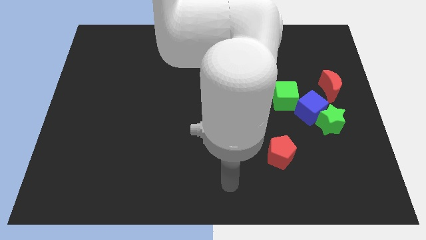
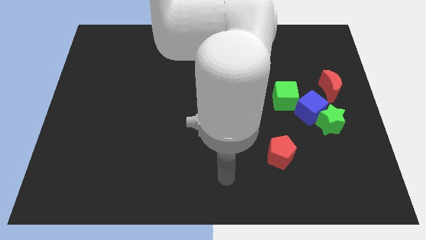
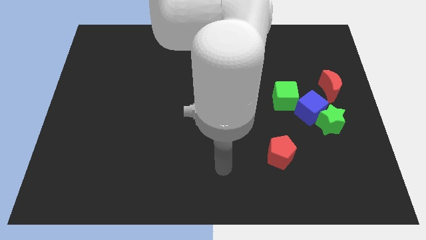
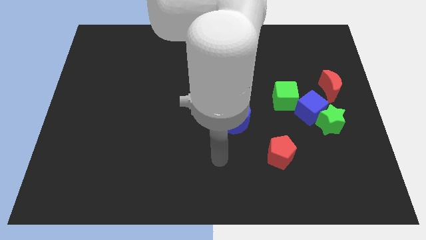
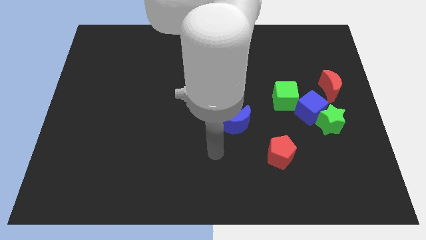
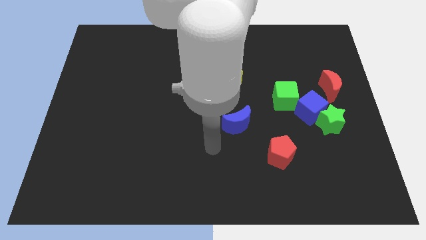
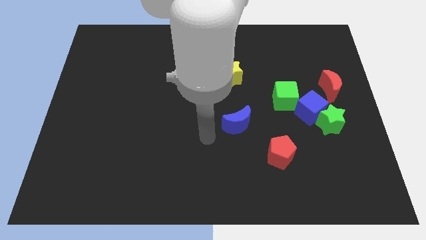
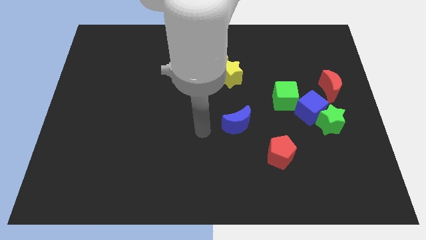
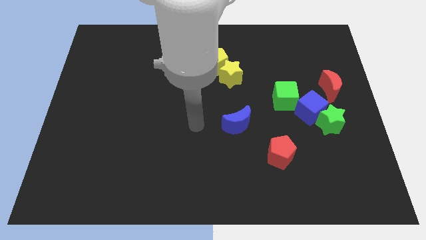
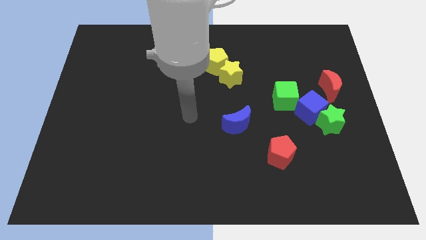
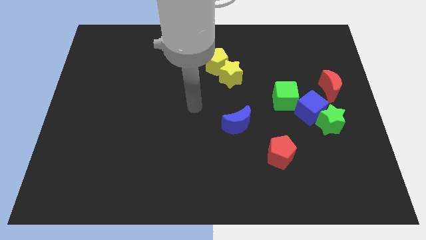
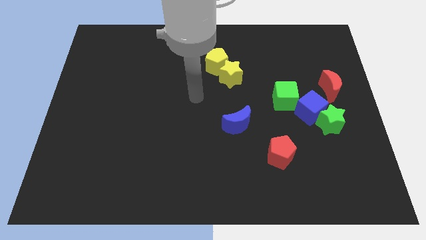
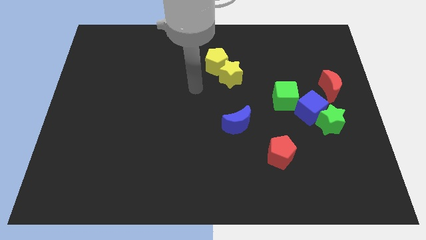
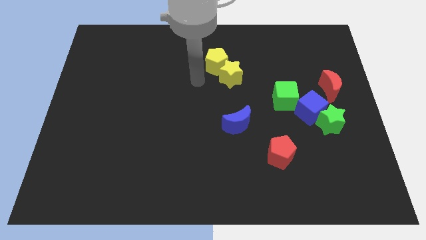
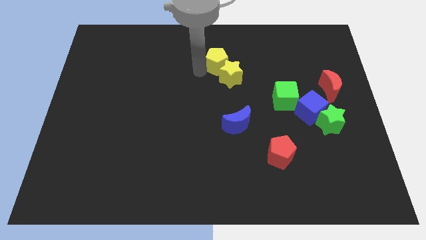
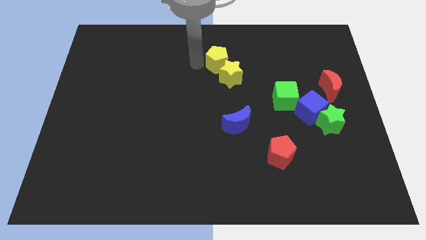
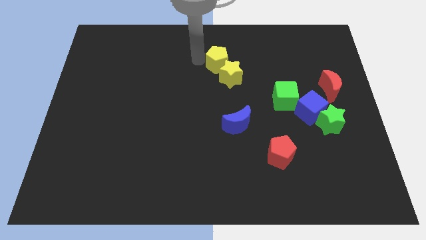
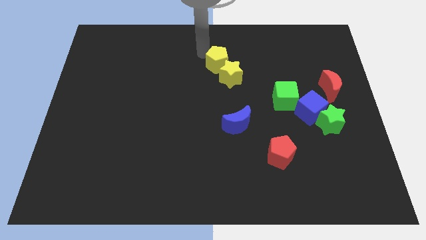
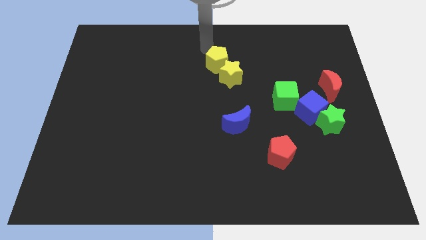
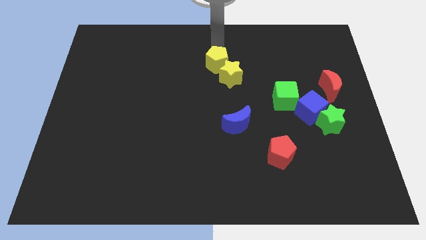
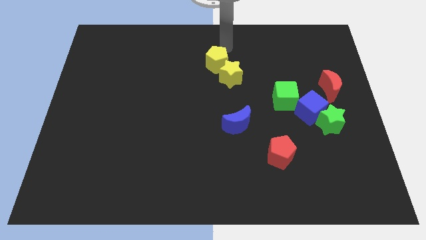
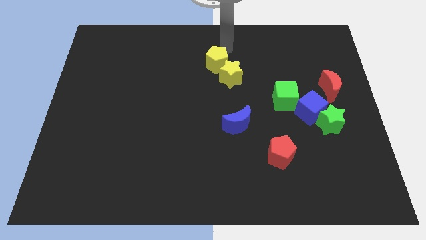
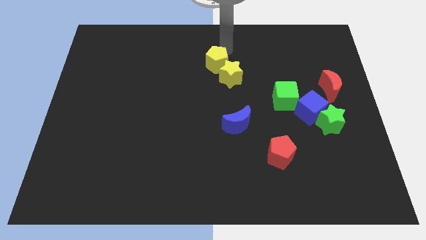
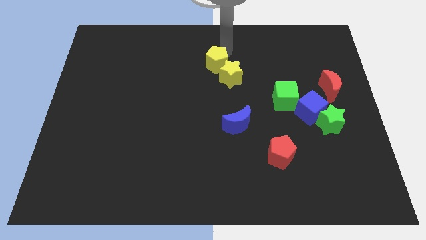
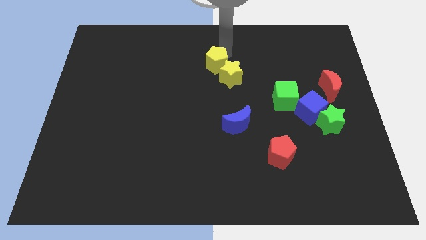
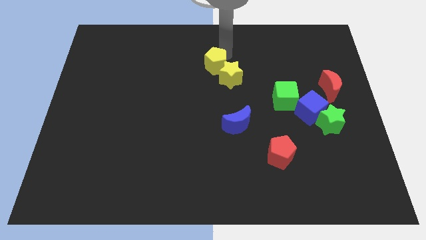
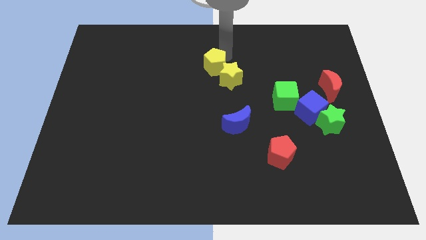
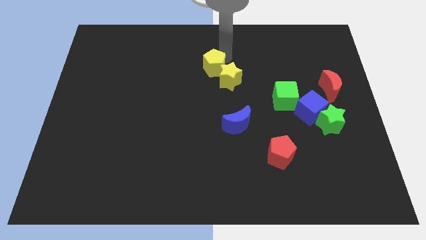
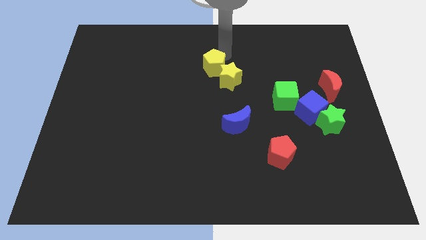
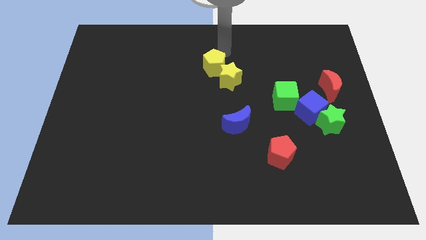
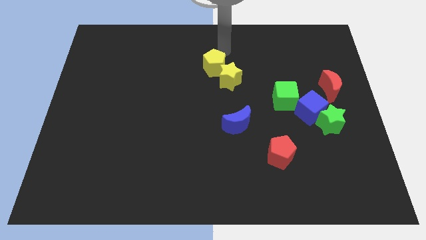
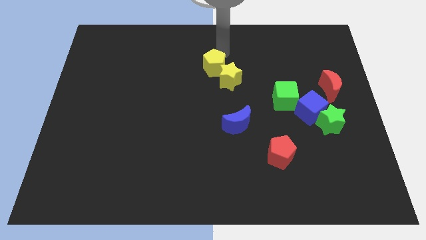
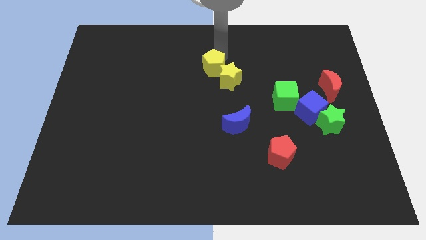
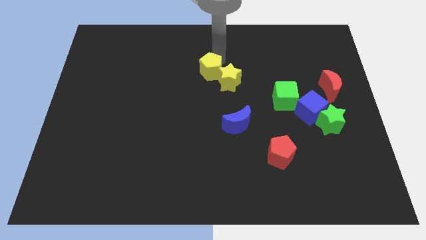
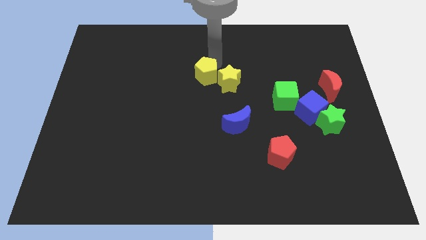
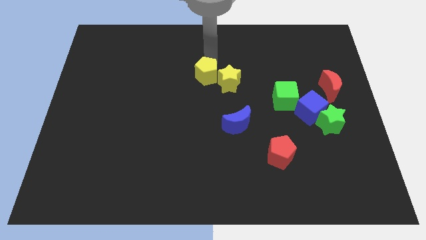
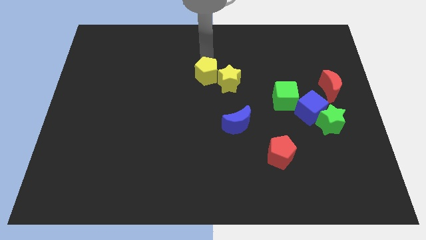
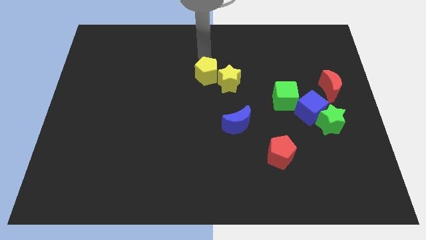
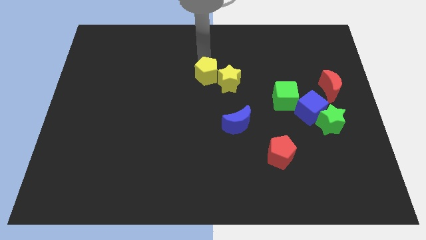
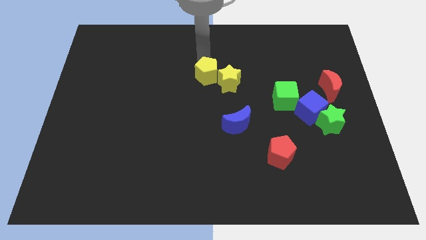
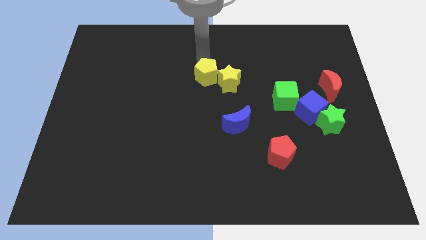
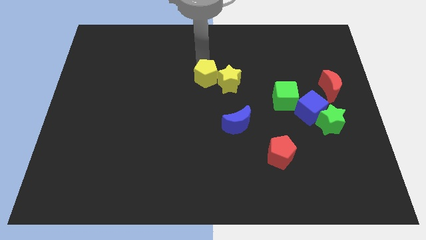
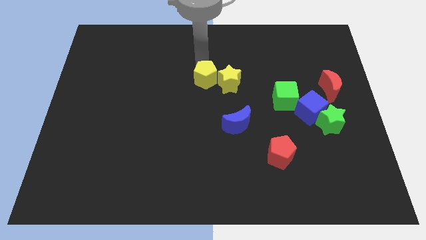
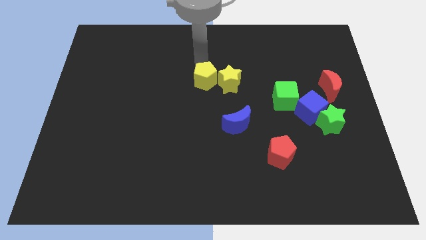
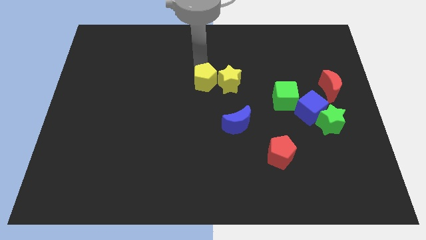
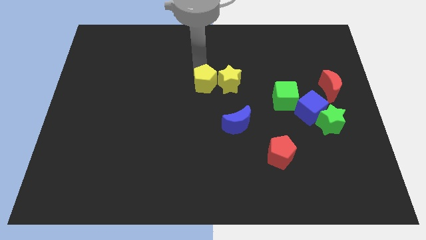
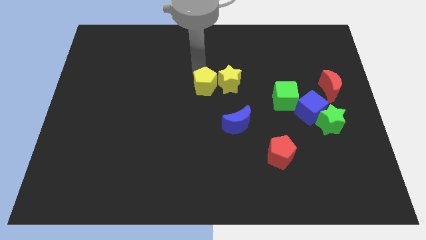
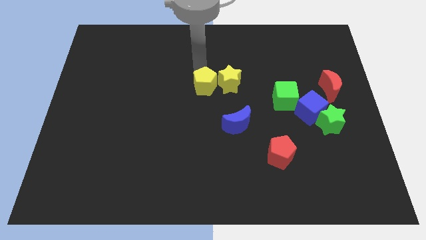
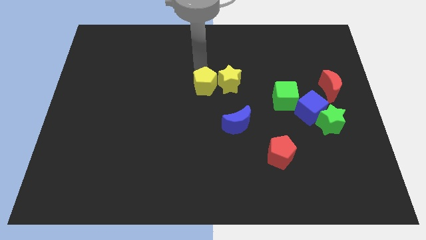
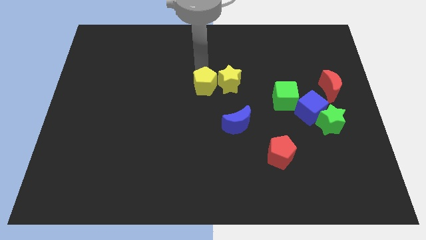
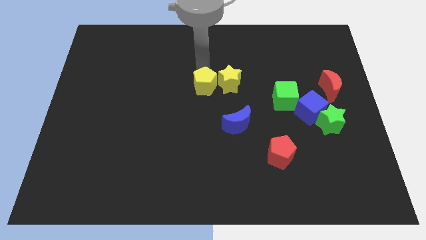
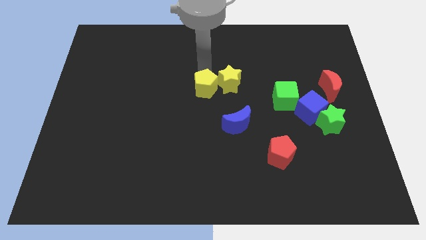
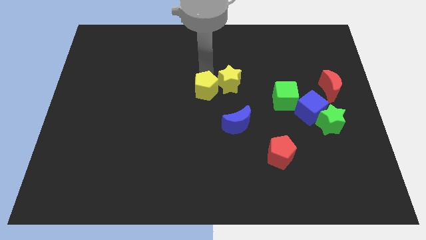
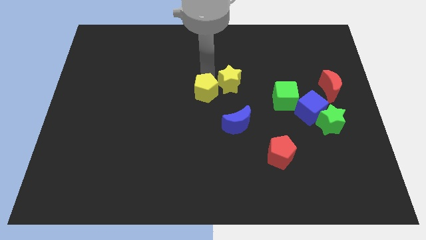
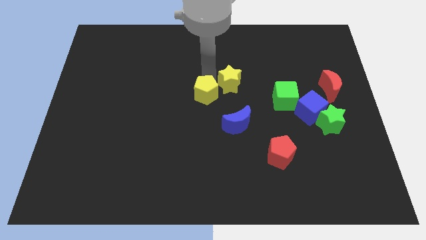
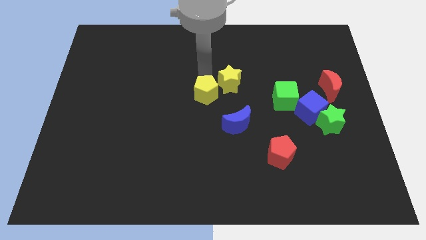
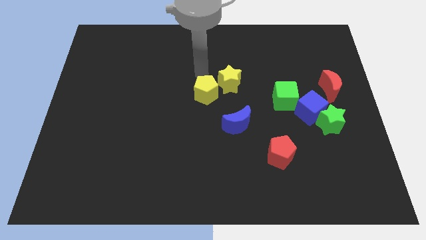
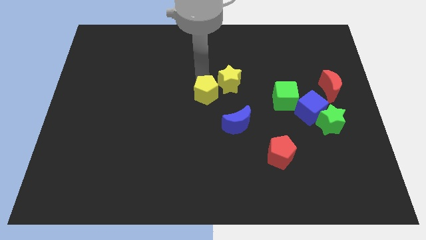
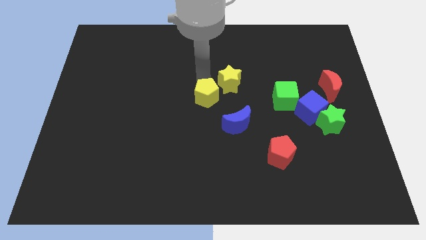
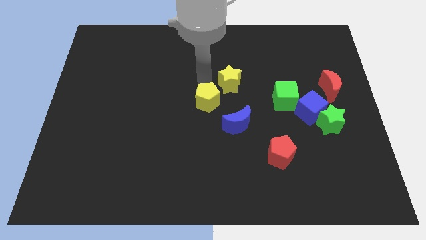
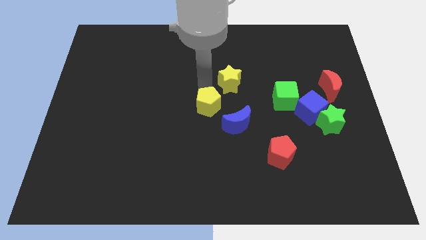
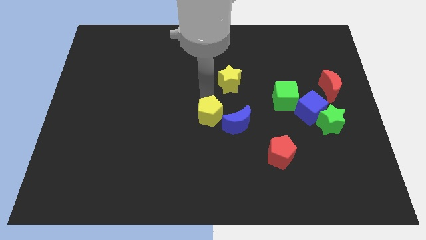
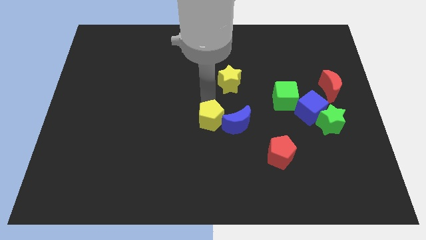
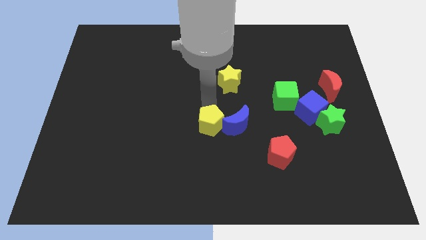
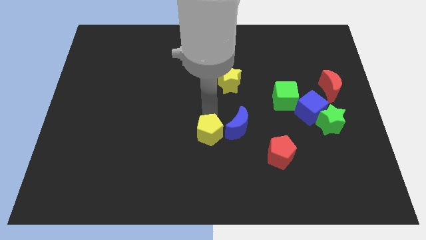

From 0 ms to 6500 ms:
push the yellow pentagon down

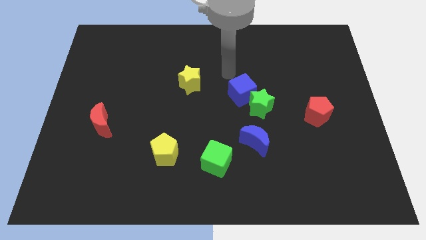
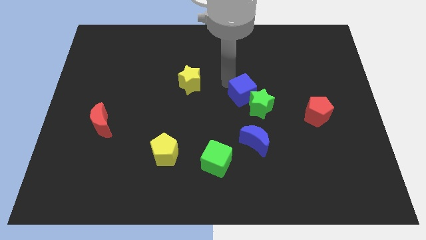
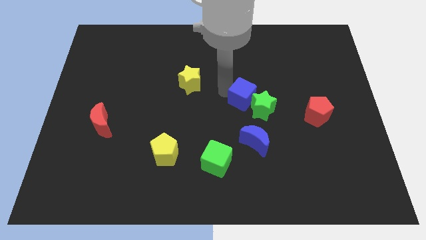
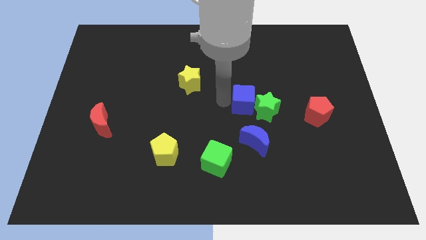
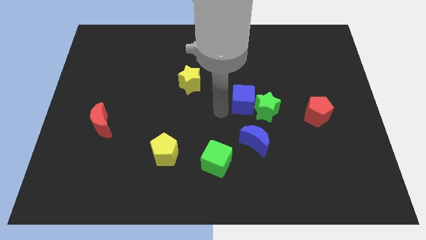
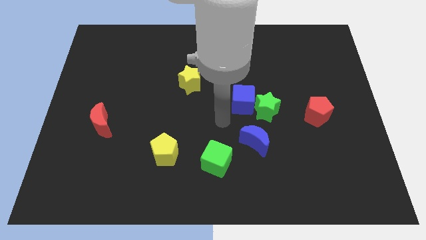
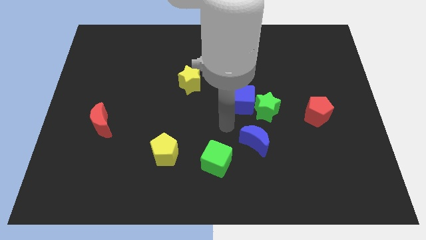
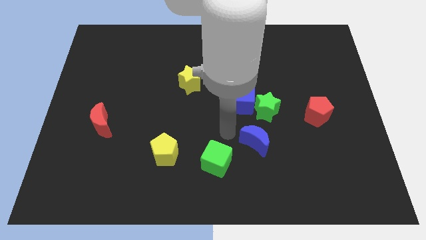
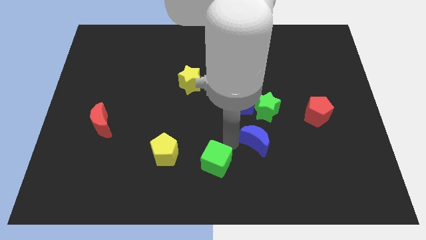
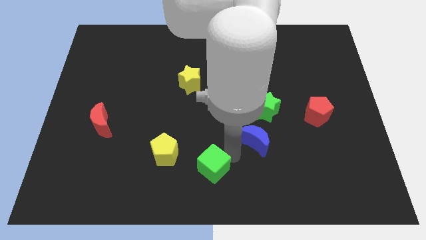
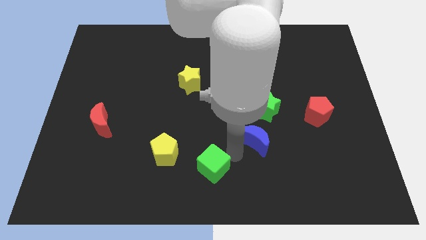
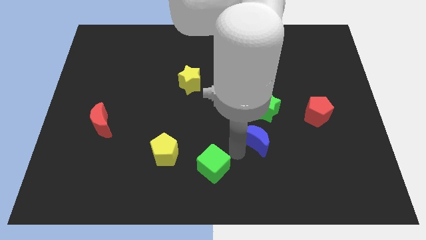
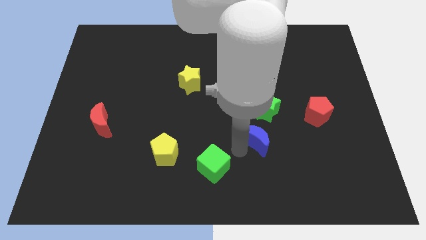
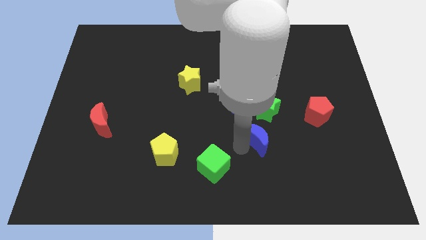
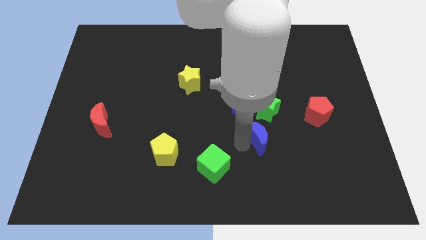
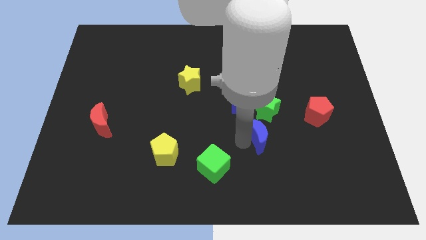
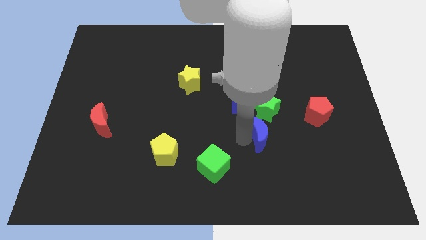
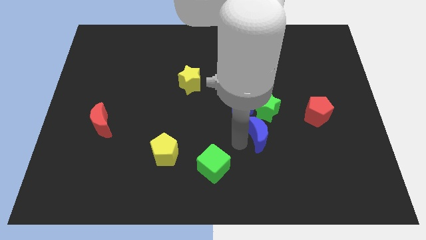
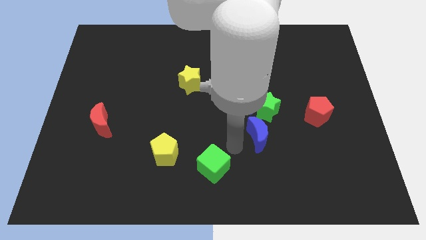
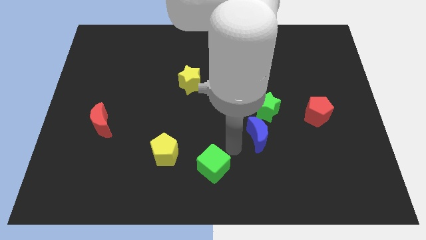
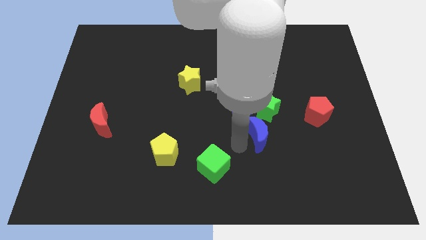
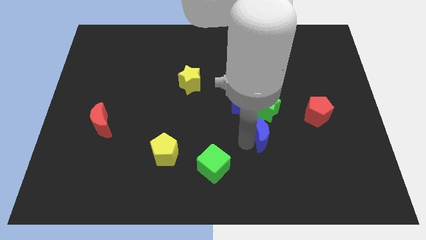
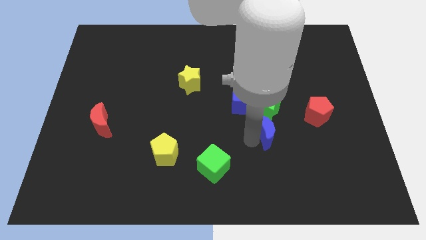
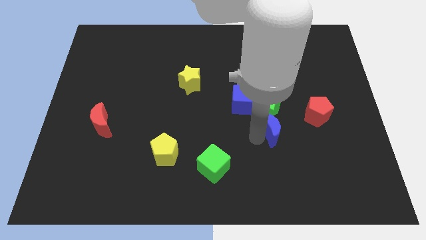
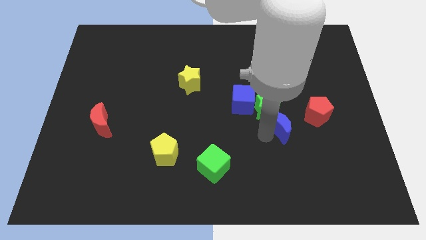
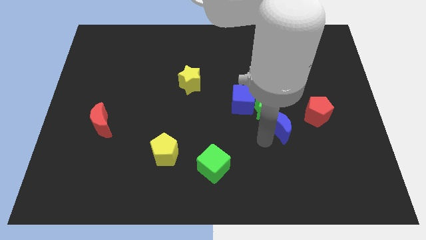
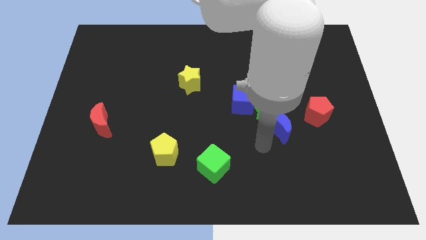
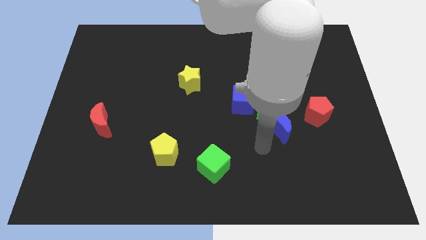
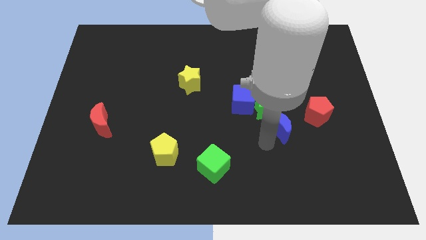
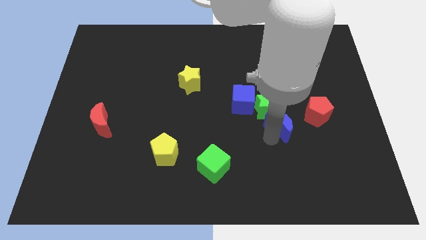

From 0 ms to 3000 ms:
move the blue moon upwards and then right somewhat
